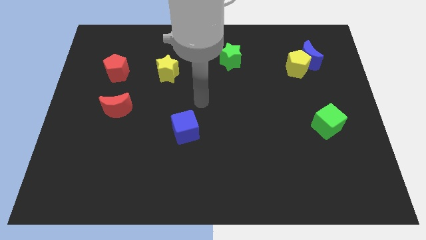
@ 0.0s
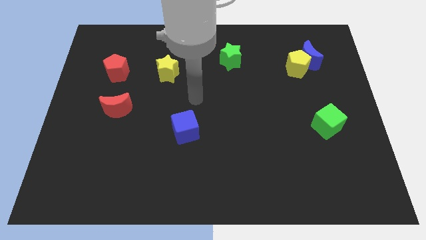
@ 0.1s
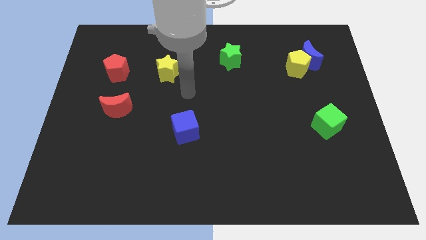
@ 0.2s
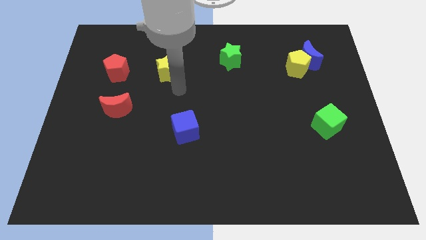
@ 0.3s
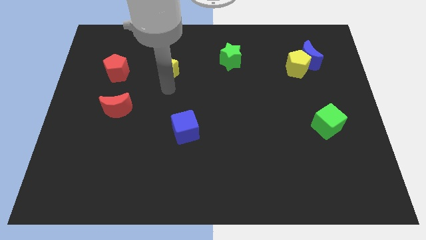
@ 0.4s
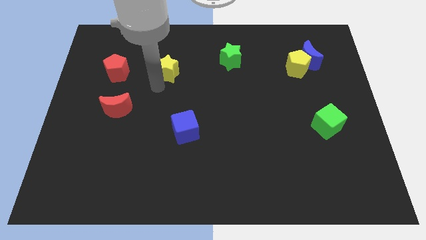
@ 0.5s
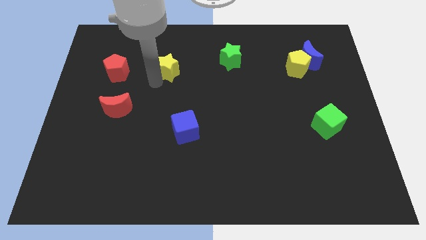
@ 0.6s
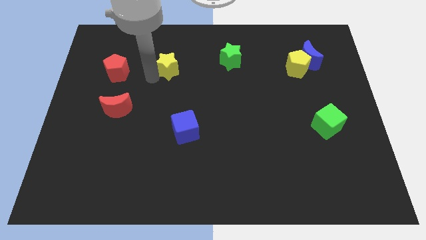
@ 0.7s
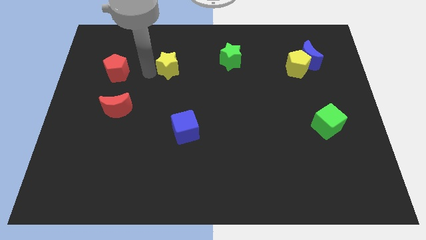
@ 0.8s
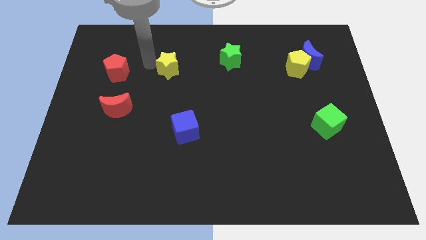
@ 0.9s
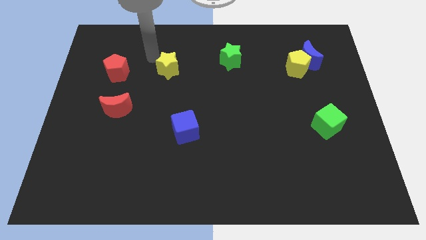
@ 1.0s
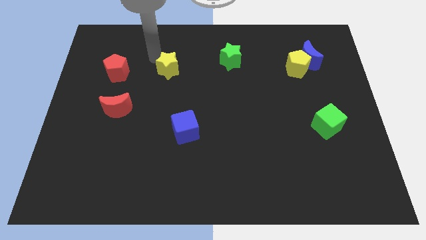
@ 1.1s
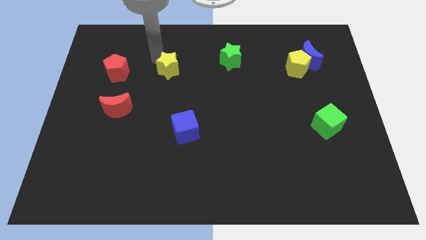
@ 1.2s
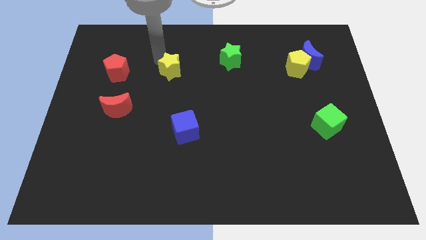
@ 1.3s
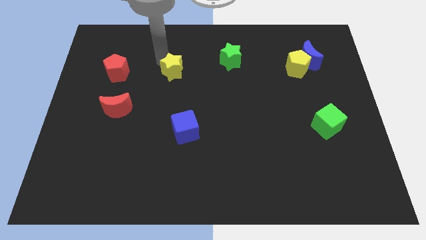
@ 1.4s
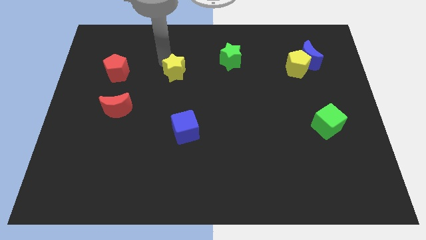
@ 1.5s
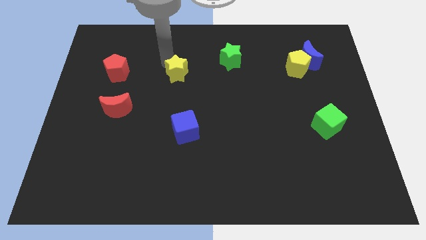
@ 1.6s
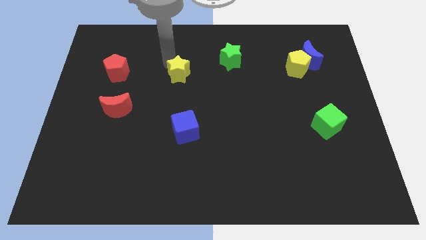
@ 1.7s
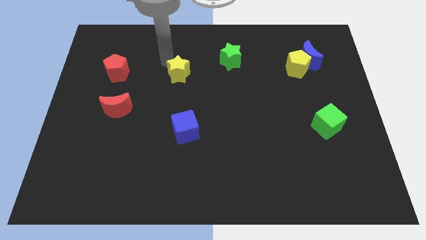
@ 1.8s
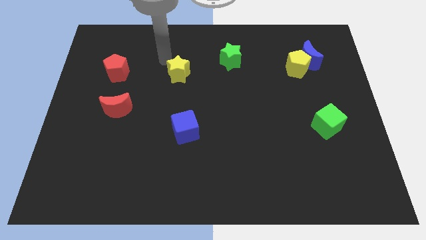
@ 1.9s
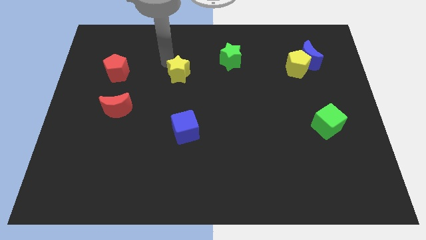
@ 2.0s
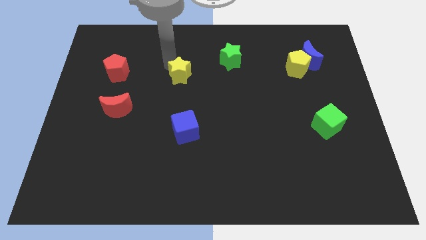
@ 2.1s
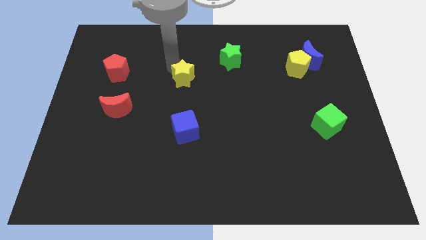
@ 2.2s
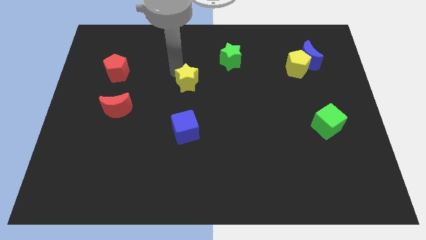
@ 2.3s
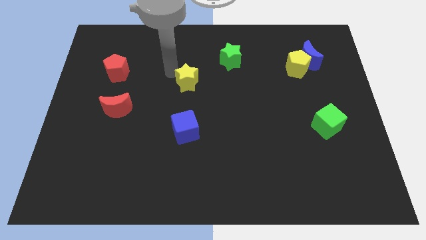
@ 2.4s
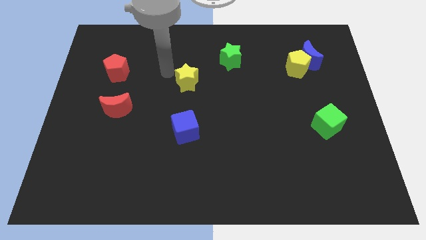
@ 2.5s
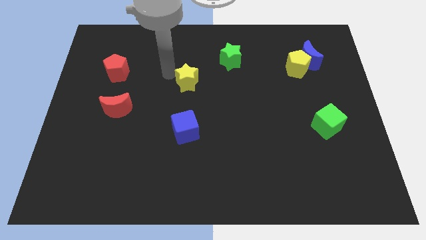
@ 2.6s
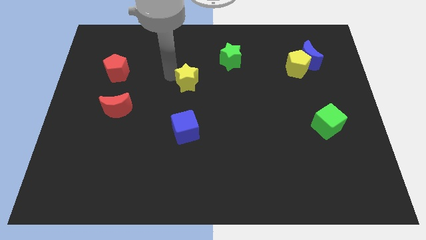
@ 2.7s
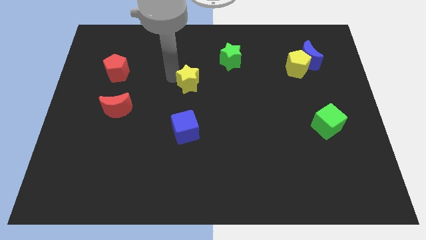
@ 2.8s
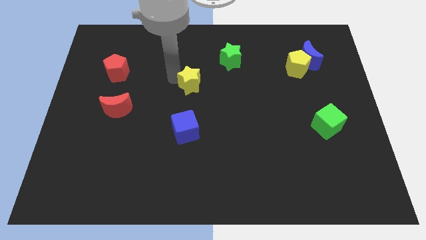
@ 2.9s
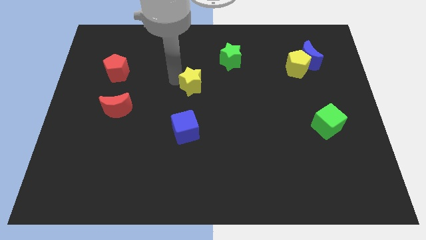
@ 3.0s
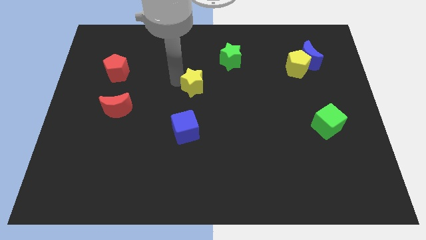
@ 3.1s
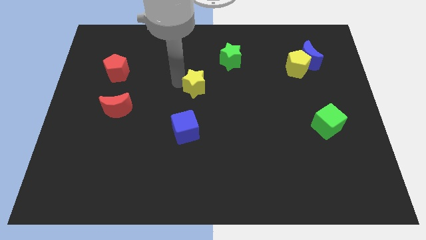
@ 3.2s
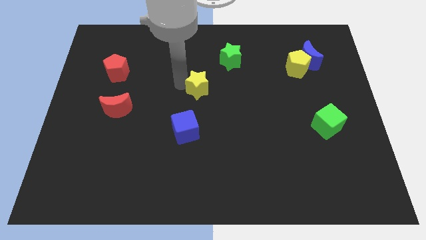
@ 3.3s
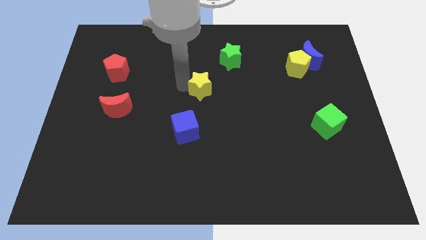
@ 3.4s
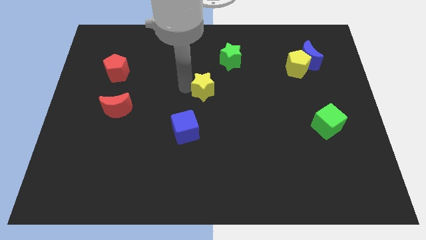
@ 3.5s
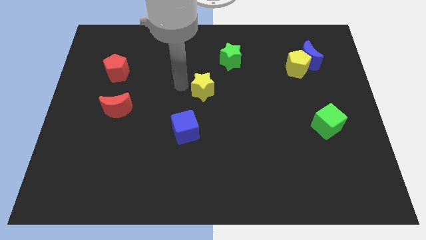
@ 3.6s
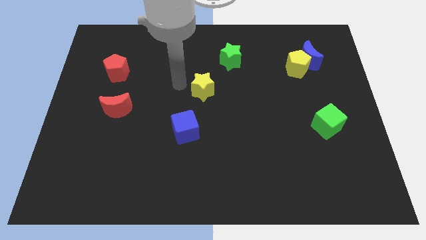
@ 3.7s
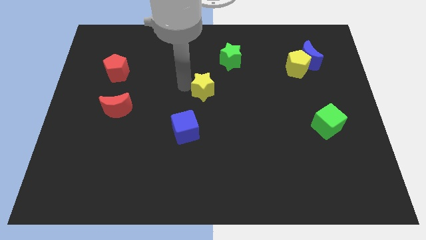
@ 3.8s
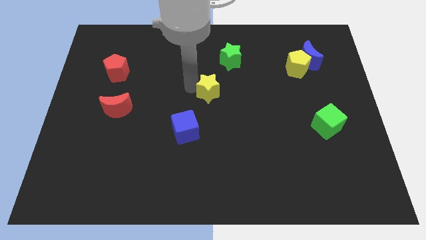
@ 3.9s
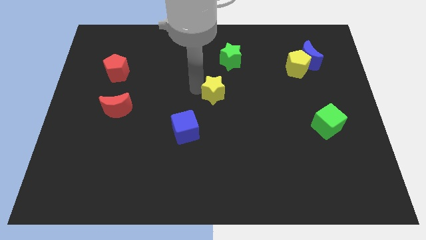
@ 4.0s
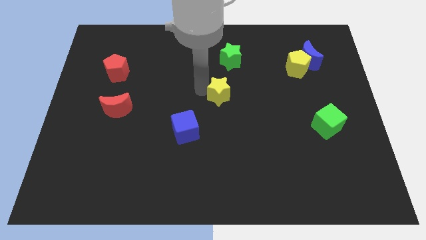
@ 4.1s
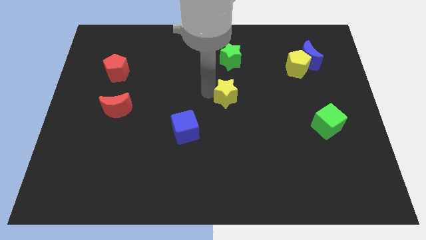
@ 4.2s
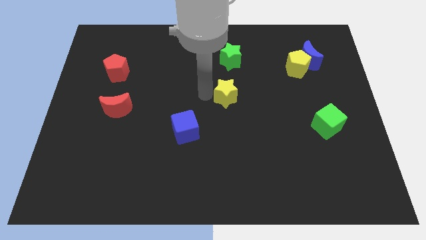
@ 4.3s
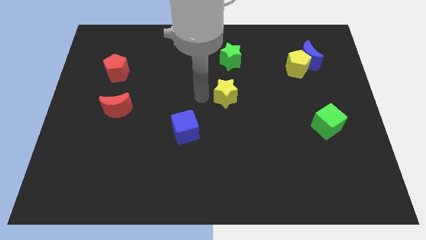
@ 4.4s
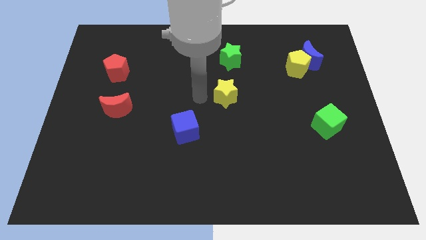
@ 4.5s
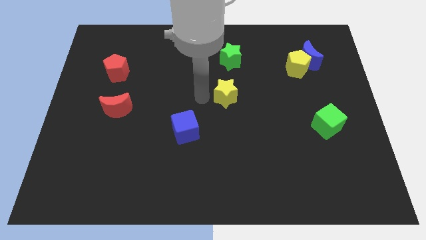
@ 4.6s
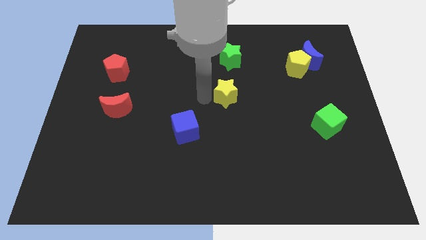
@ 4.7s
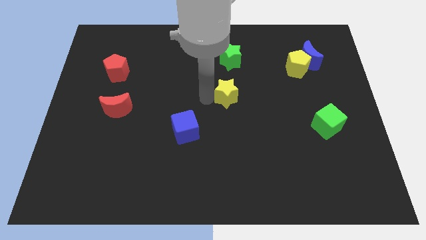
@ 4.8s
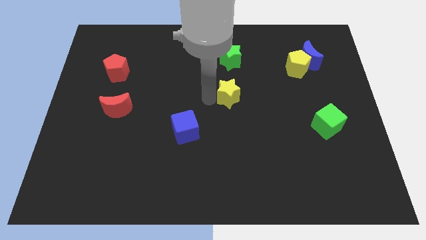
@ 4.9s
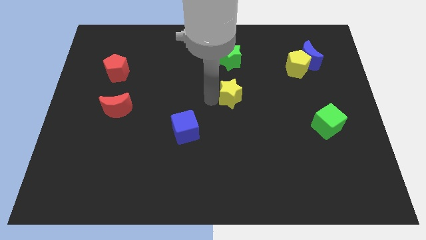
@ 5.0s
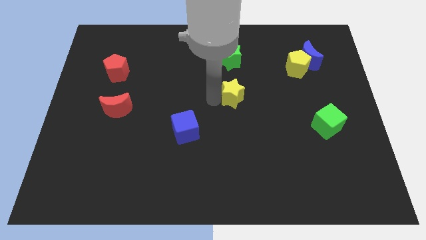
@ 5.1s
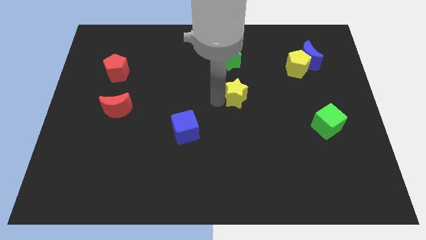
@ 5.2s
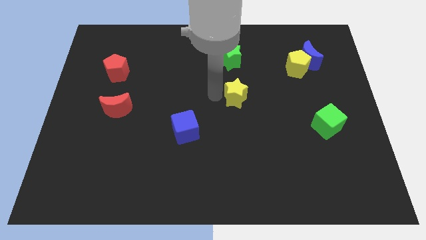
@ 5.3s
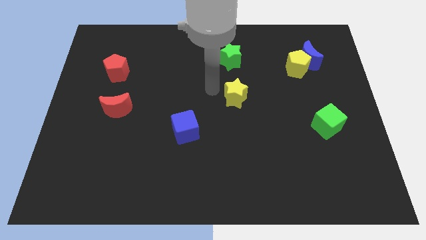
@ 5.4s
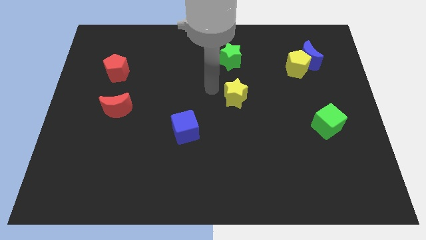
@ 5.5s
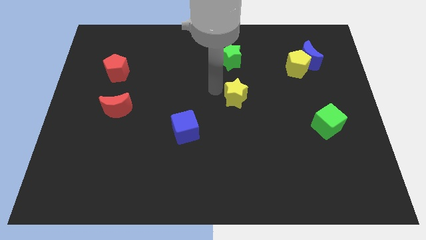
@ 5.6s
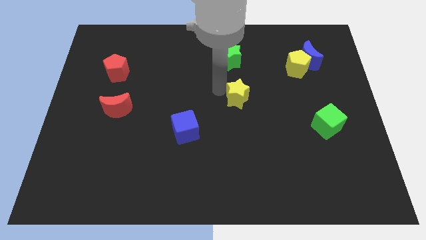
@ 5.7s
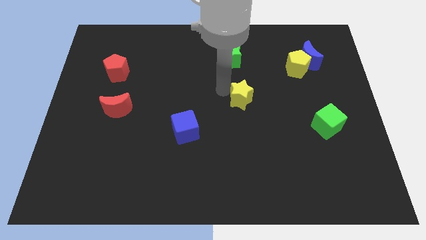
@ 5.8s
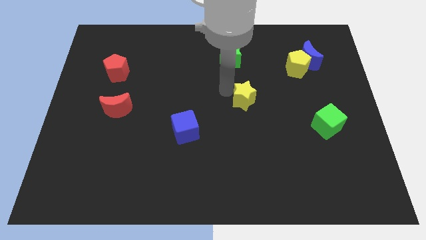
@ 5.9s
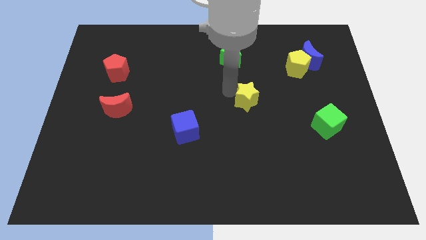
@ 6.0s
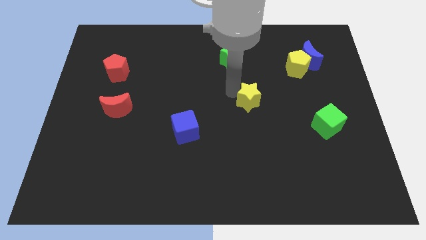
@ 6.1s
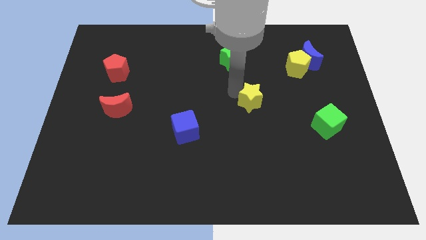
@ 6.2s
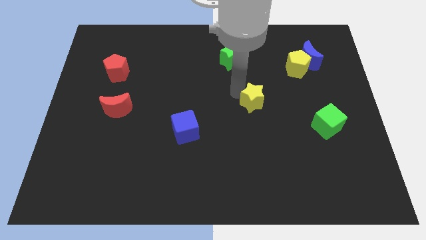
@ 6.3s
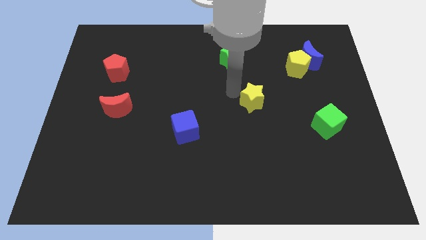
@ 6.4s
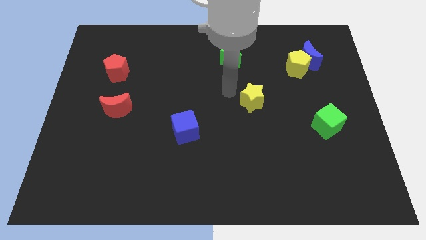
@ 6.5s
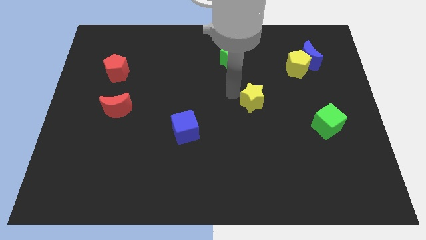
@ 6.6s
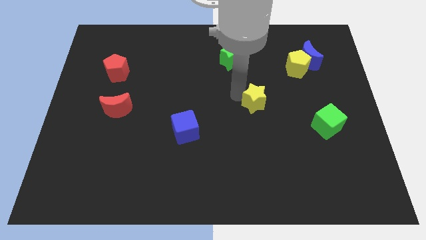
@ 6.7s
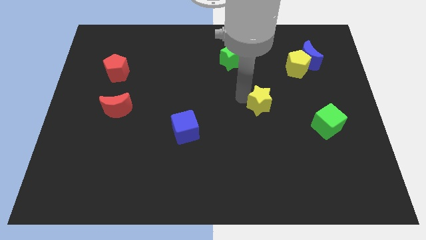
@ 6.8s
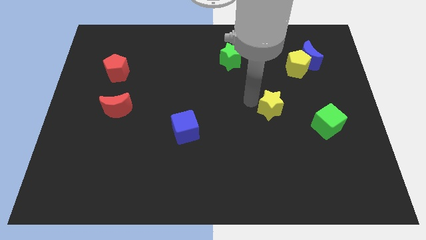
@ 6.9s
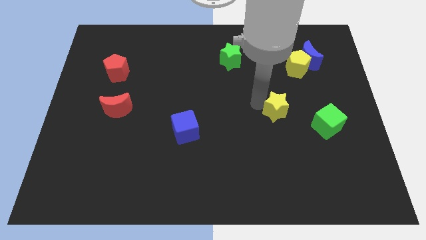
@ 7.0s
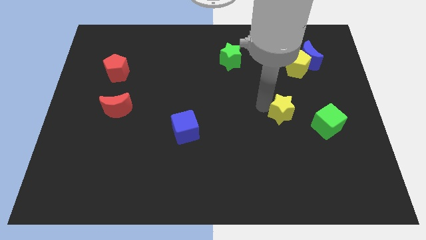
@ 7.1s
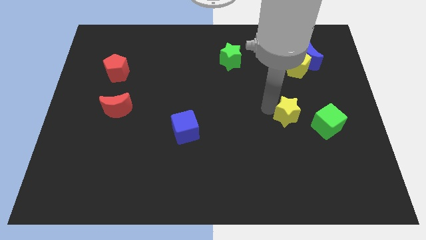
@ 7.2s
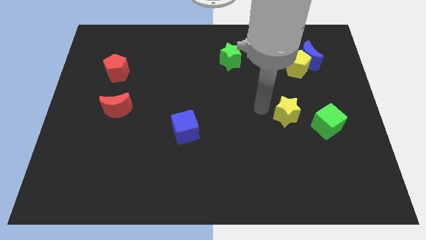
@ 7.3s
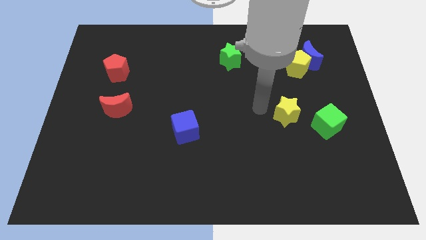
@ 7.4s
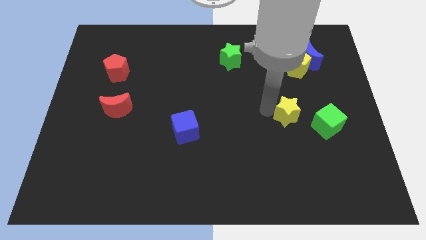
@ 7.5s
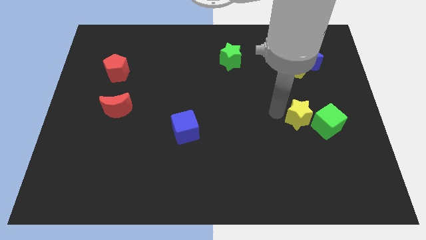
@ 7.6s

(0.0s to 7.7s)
put the yellow star next to the green cube
